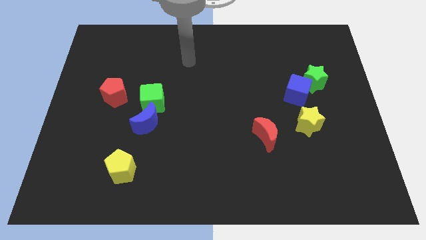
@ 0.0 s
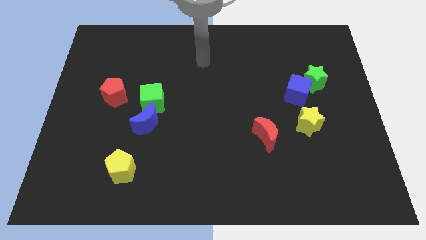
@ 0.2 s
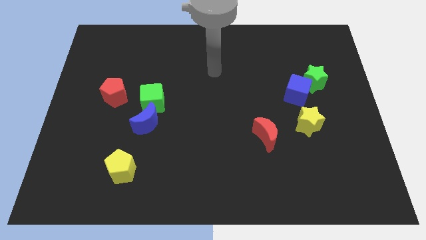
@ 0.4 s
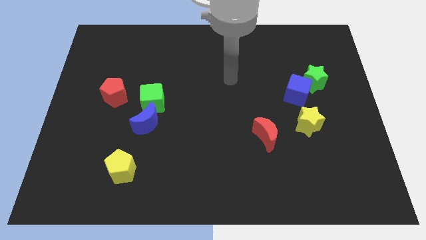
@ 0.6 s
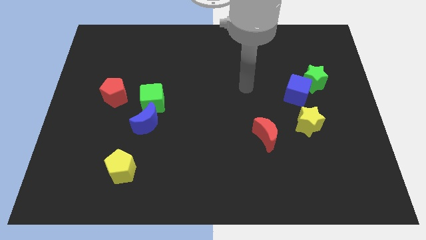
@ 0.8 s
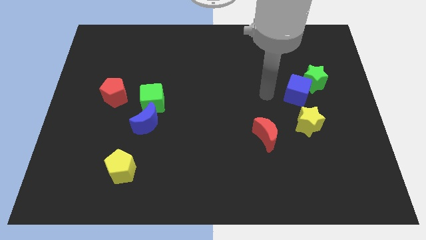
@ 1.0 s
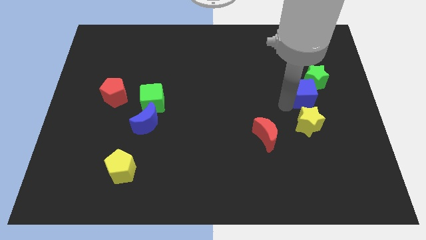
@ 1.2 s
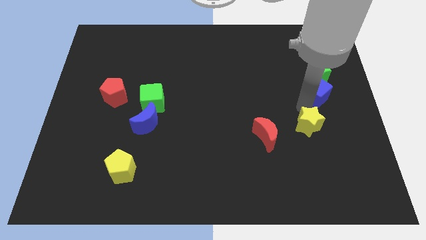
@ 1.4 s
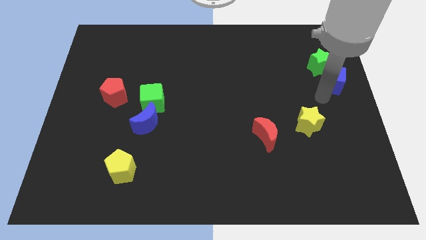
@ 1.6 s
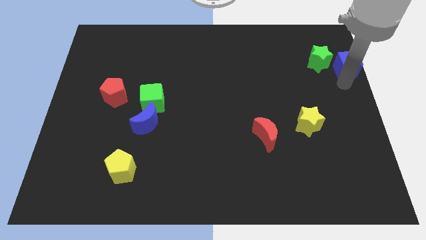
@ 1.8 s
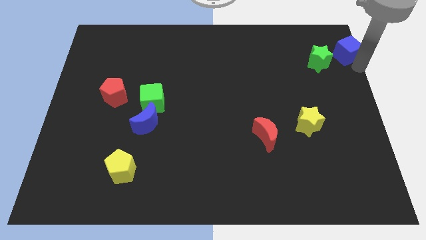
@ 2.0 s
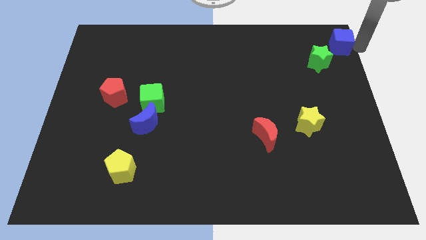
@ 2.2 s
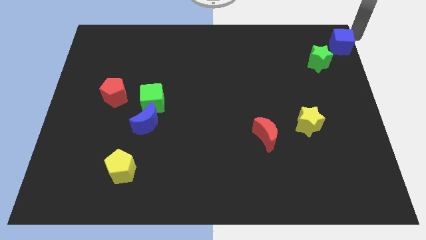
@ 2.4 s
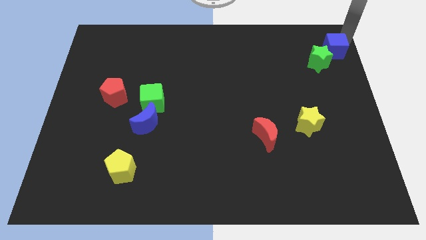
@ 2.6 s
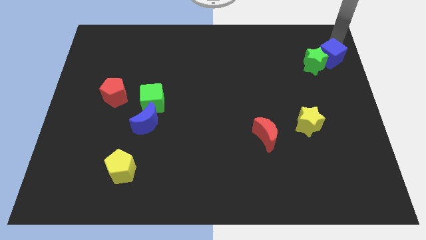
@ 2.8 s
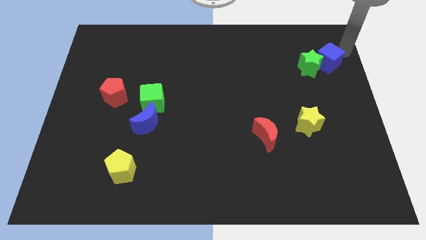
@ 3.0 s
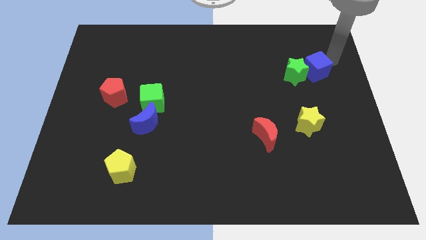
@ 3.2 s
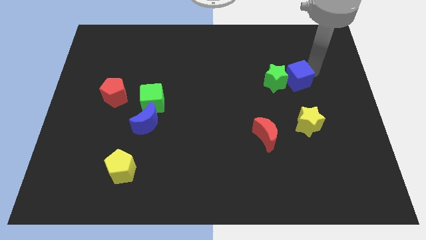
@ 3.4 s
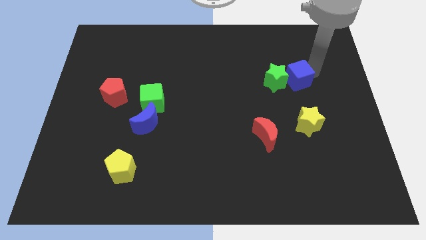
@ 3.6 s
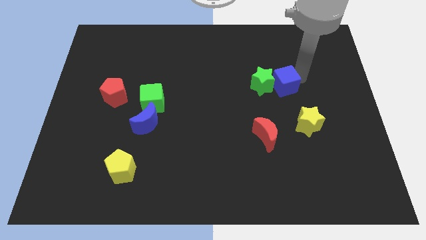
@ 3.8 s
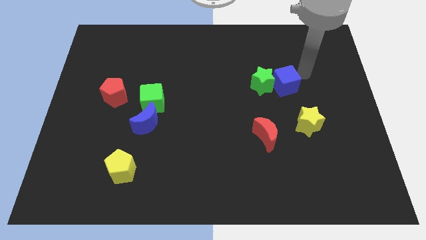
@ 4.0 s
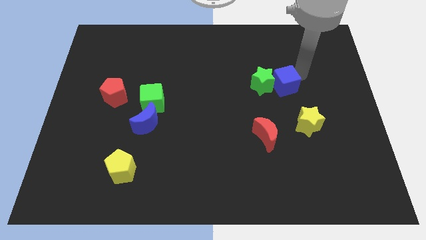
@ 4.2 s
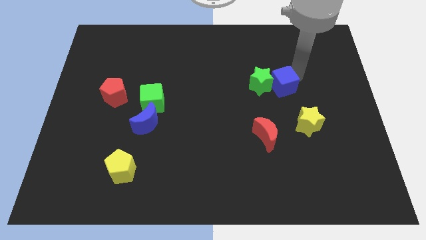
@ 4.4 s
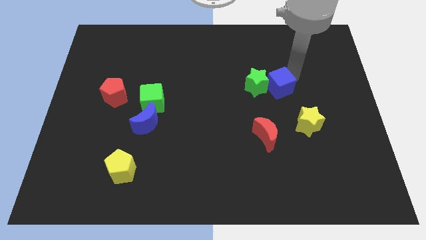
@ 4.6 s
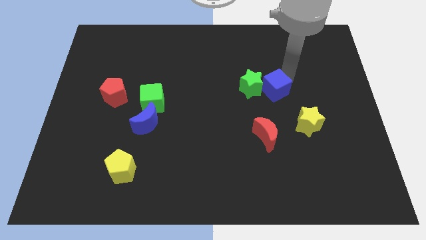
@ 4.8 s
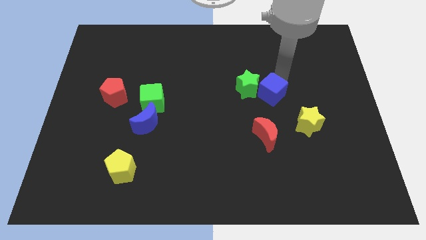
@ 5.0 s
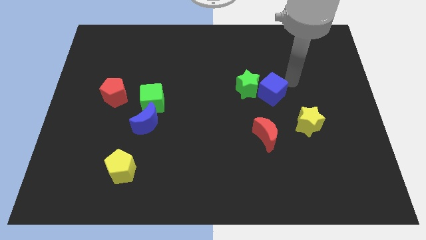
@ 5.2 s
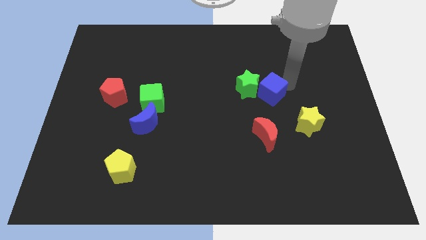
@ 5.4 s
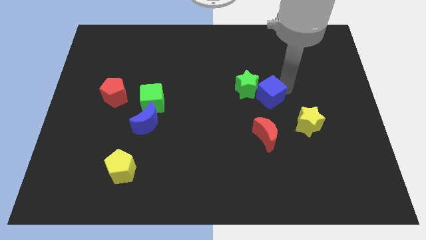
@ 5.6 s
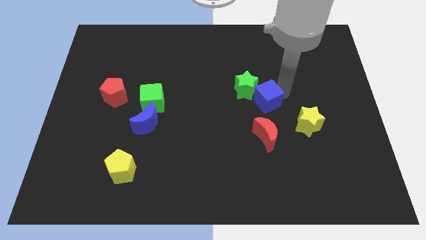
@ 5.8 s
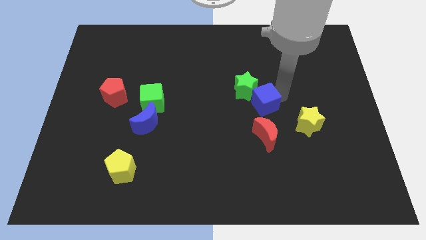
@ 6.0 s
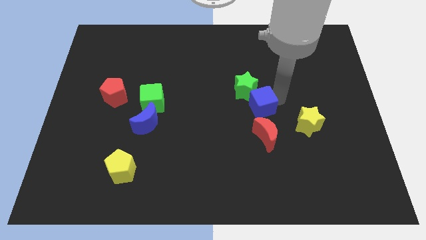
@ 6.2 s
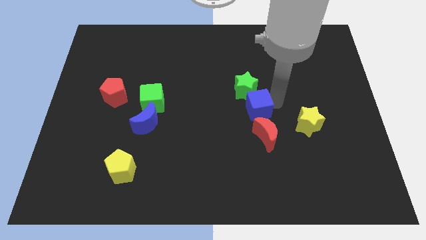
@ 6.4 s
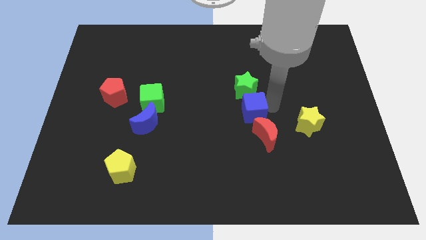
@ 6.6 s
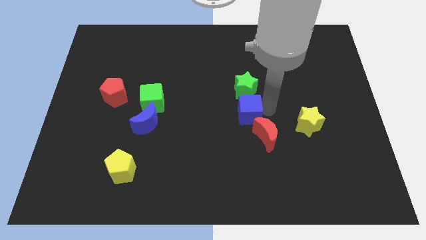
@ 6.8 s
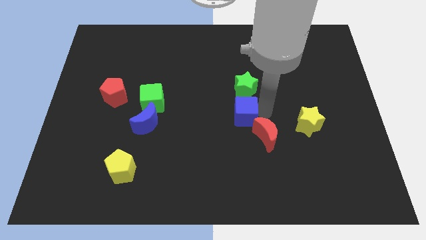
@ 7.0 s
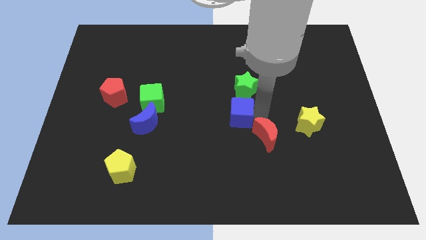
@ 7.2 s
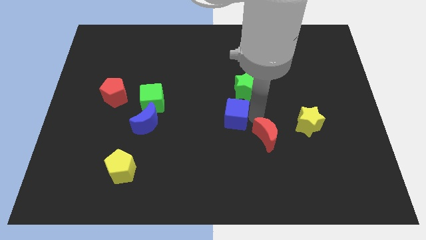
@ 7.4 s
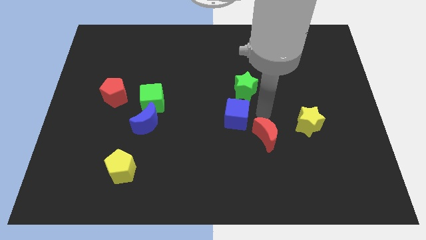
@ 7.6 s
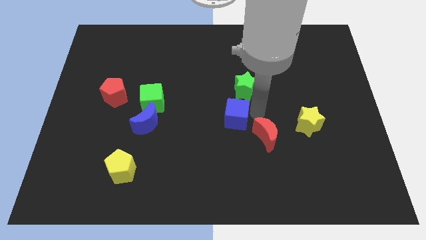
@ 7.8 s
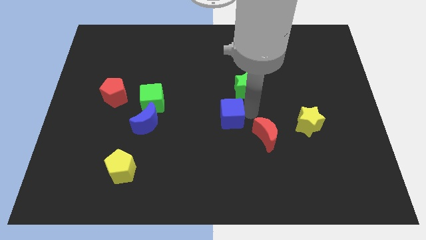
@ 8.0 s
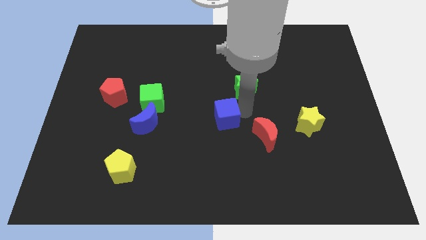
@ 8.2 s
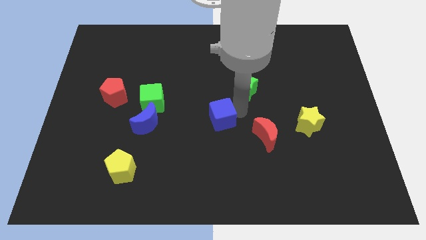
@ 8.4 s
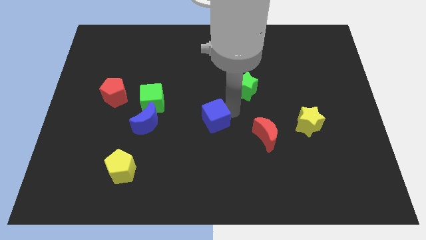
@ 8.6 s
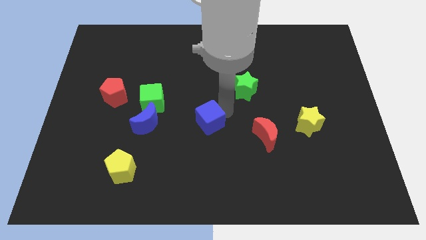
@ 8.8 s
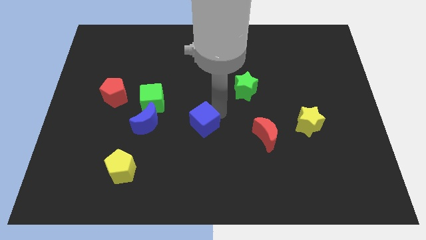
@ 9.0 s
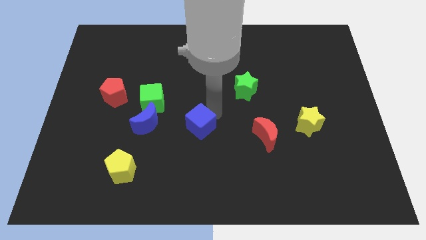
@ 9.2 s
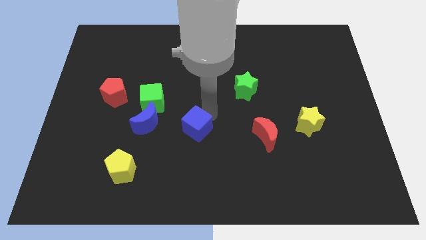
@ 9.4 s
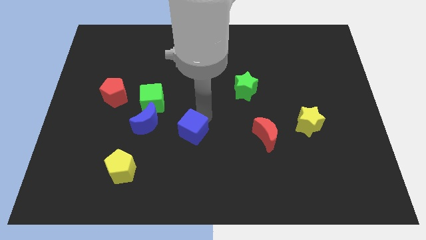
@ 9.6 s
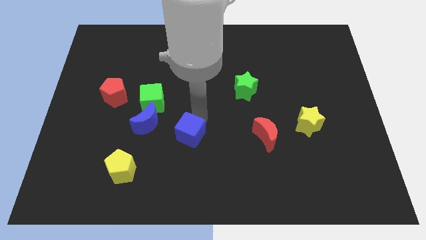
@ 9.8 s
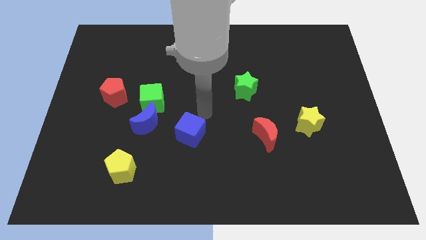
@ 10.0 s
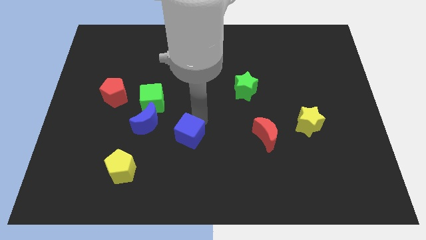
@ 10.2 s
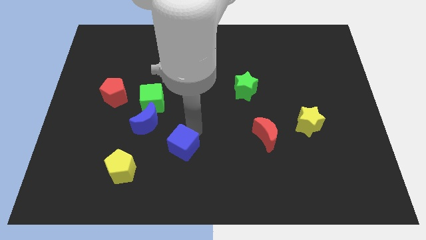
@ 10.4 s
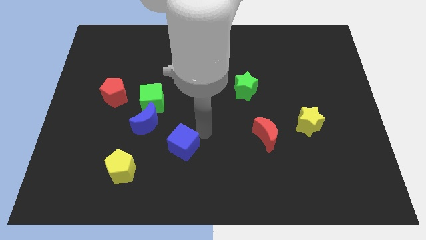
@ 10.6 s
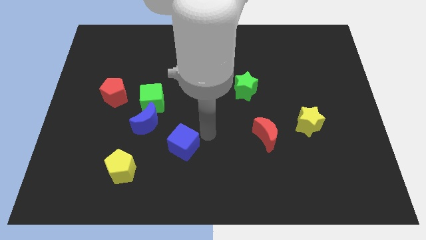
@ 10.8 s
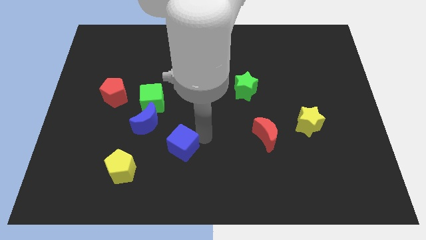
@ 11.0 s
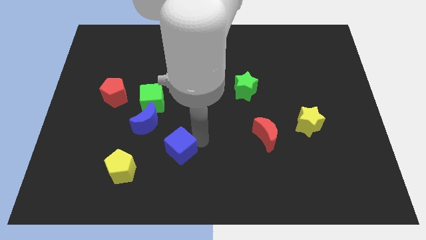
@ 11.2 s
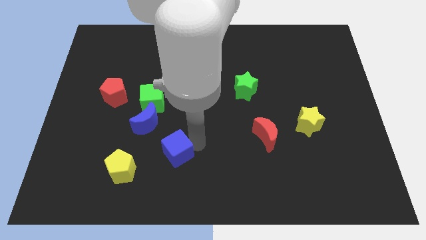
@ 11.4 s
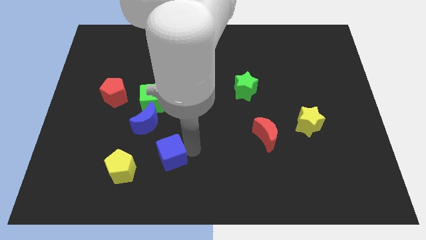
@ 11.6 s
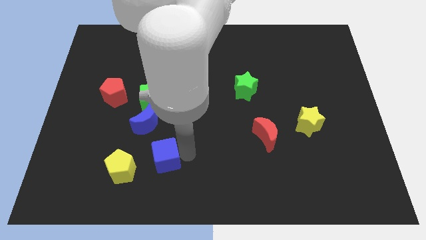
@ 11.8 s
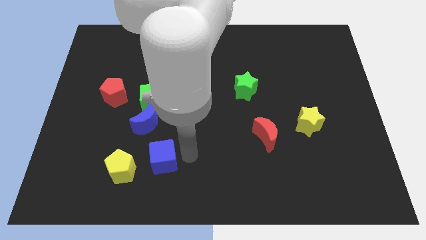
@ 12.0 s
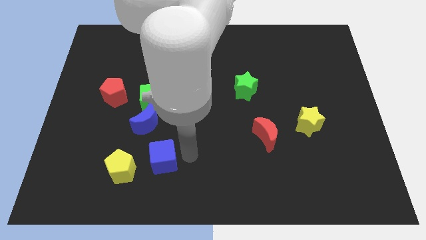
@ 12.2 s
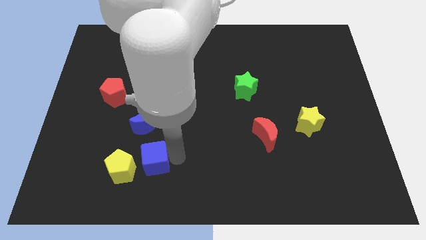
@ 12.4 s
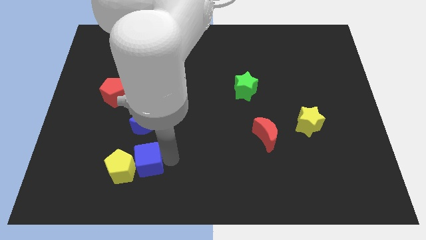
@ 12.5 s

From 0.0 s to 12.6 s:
move the blue cube to the yellow pentagon

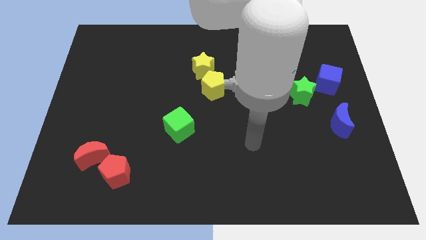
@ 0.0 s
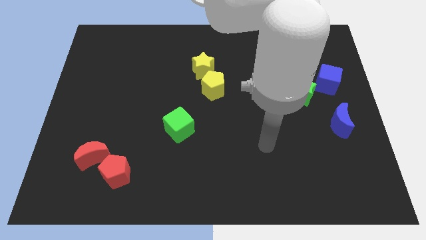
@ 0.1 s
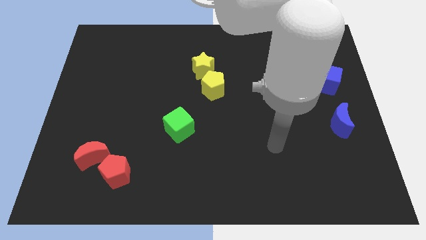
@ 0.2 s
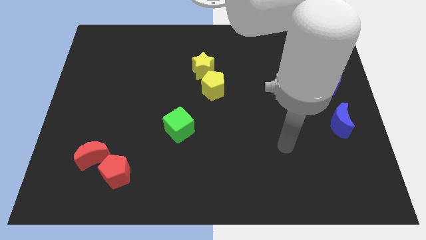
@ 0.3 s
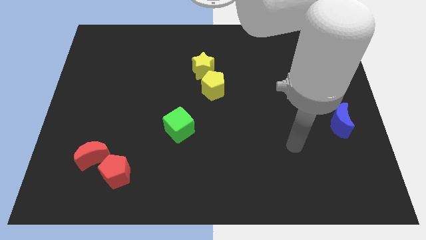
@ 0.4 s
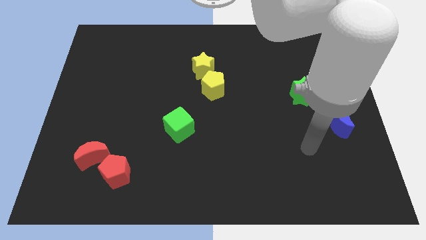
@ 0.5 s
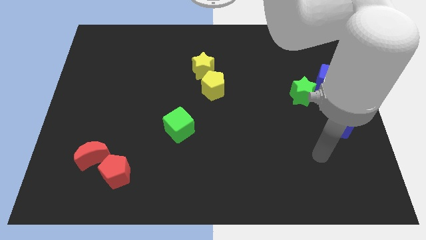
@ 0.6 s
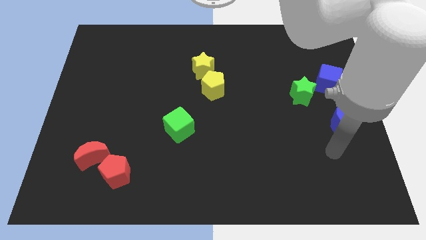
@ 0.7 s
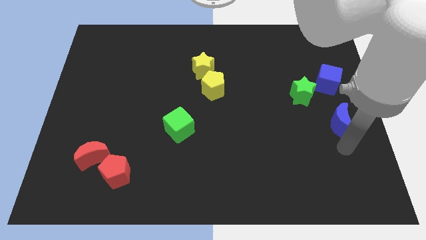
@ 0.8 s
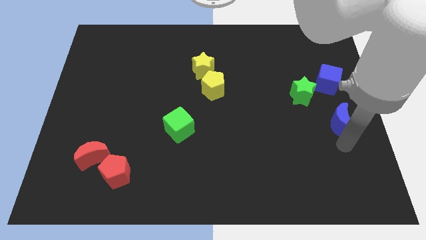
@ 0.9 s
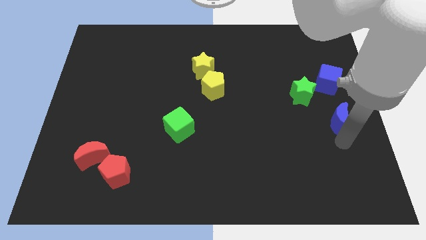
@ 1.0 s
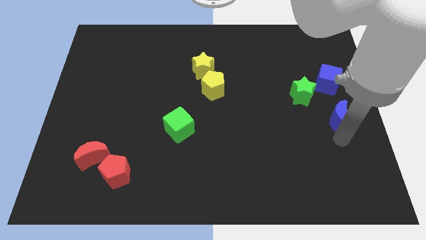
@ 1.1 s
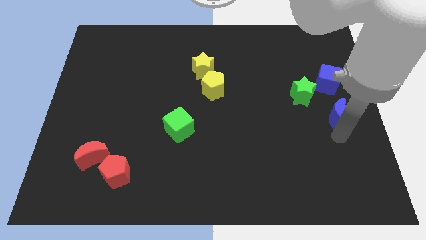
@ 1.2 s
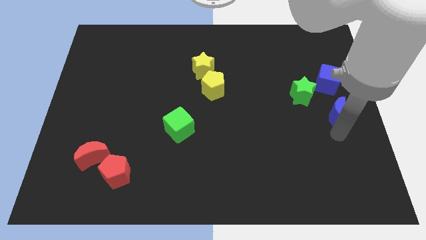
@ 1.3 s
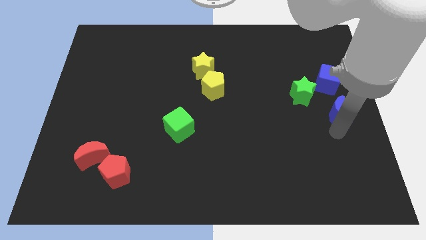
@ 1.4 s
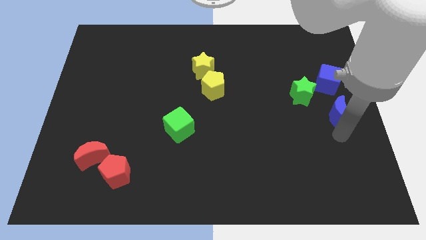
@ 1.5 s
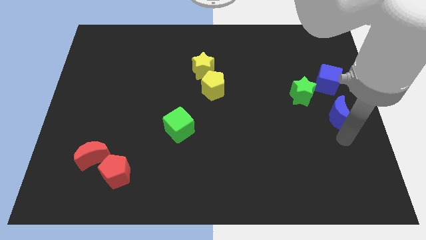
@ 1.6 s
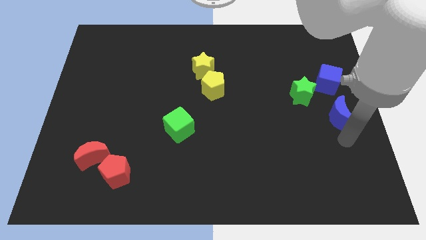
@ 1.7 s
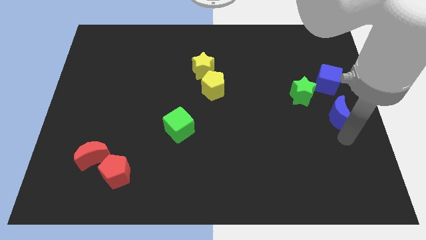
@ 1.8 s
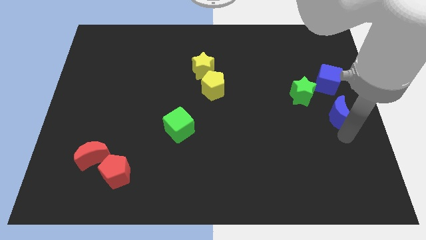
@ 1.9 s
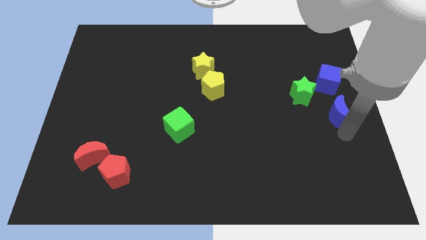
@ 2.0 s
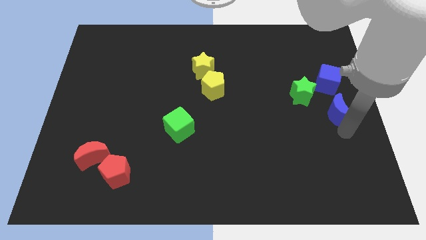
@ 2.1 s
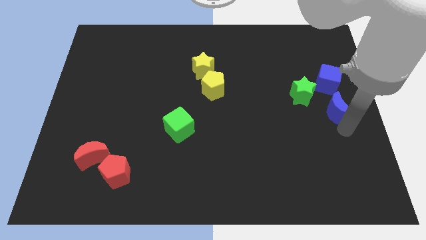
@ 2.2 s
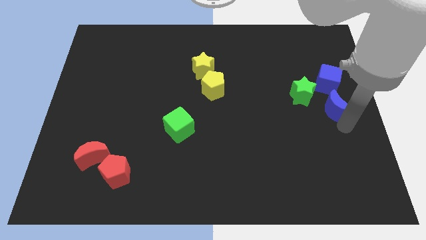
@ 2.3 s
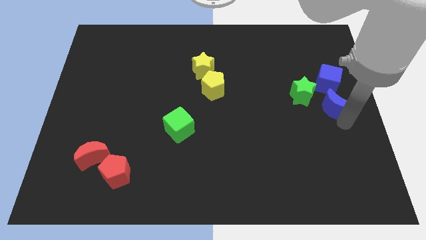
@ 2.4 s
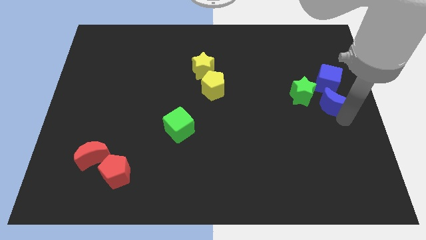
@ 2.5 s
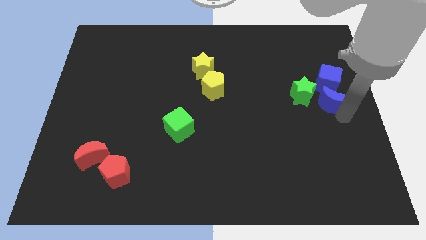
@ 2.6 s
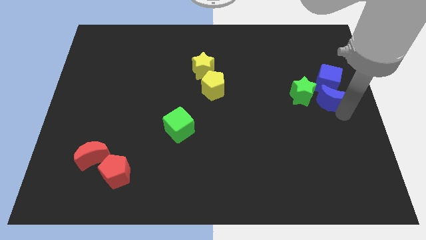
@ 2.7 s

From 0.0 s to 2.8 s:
put the blue moon close to the blue cube
